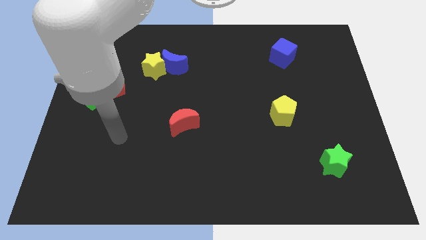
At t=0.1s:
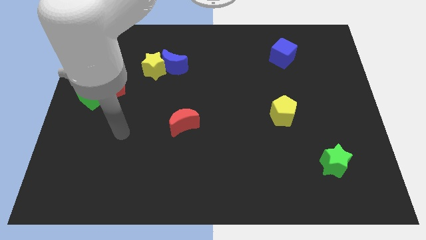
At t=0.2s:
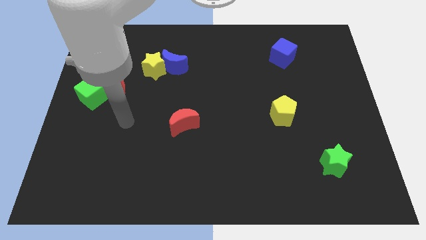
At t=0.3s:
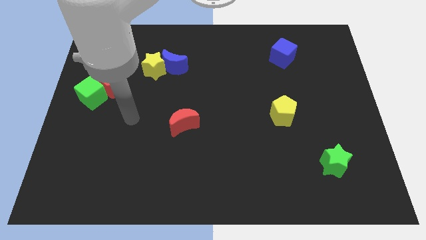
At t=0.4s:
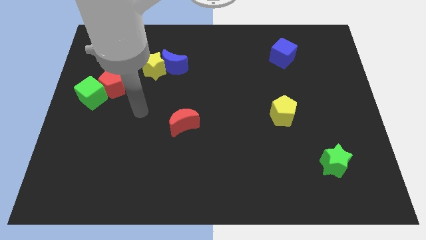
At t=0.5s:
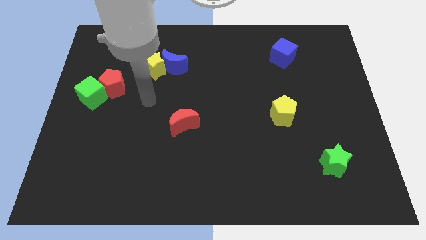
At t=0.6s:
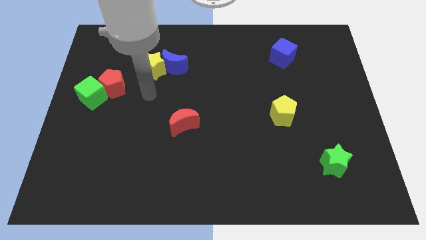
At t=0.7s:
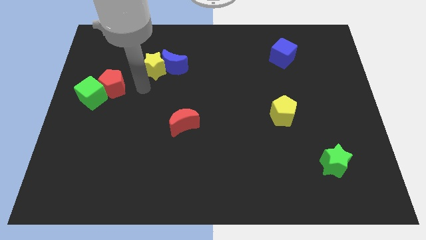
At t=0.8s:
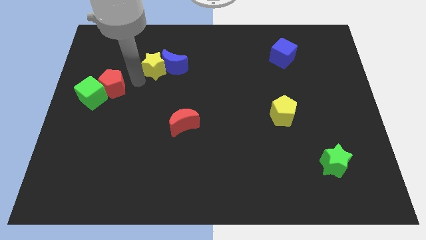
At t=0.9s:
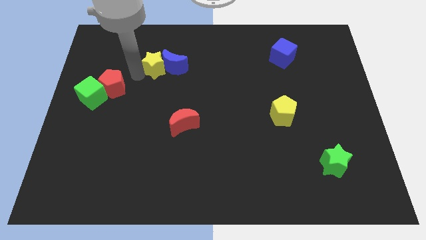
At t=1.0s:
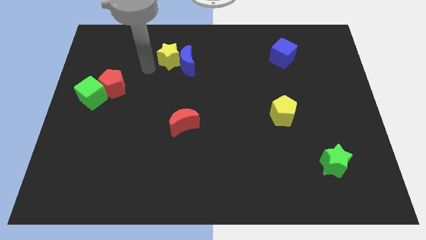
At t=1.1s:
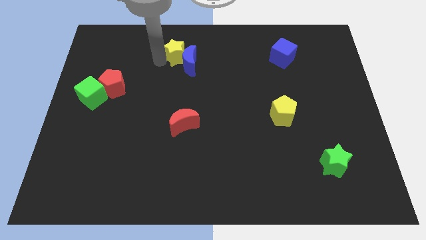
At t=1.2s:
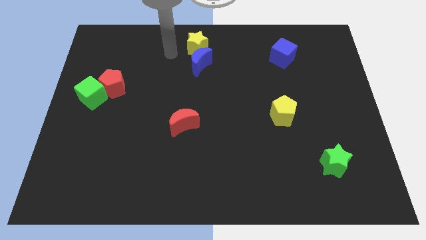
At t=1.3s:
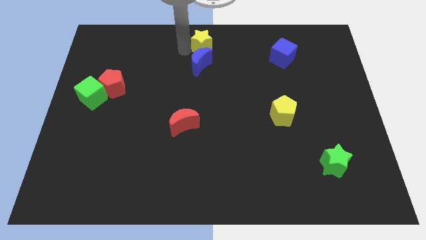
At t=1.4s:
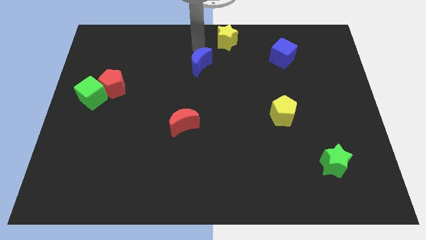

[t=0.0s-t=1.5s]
move the blue moon away from the yellow star

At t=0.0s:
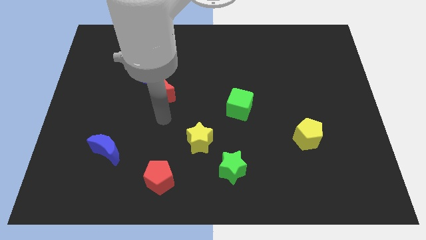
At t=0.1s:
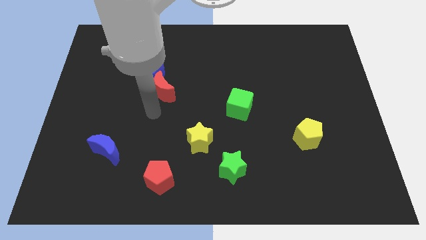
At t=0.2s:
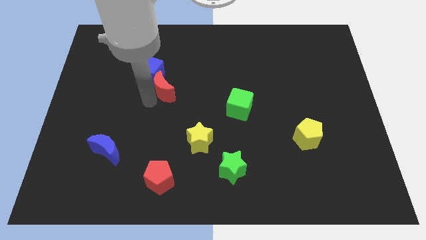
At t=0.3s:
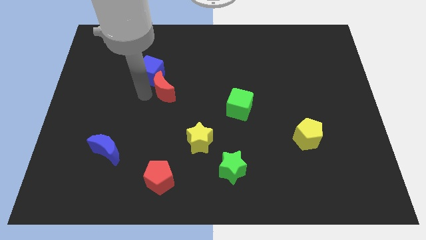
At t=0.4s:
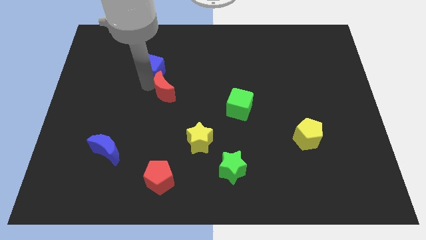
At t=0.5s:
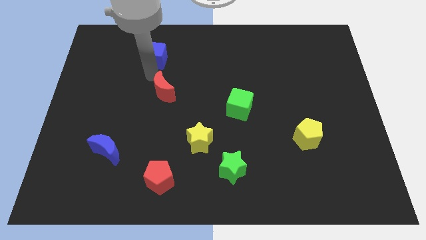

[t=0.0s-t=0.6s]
move the red moon away from the blue cube

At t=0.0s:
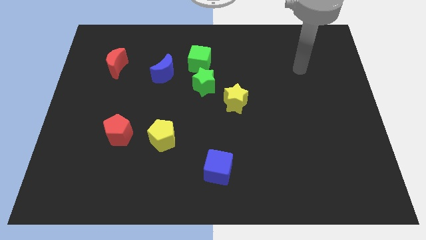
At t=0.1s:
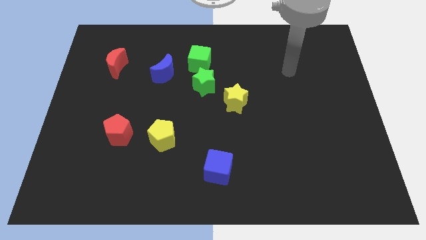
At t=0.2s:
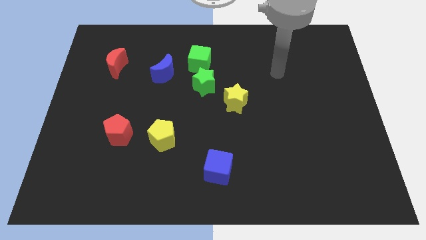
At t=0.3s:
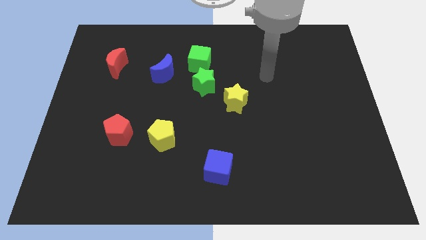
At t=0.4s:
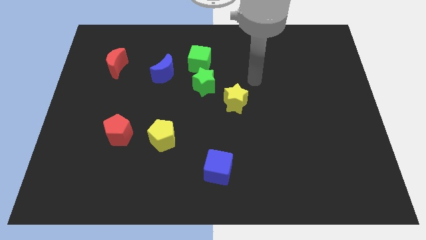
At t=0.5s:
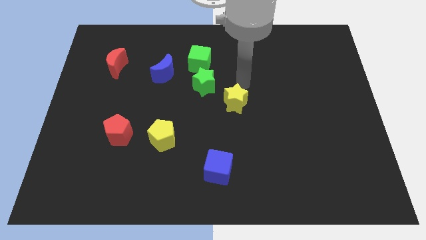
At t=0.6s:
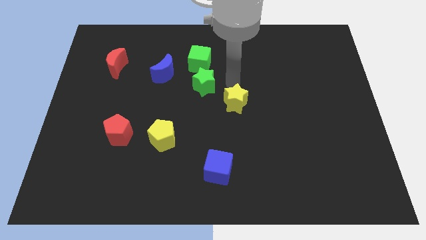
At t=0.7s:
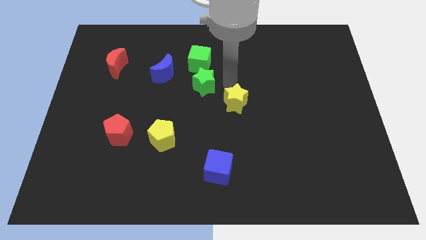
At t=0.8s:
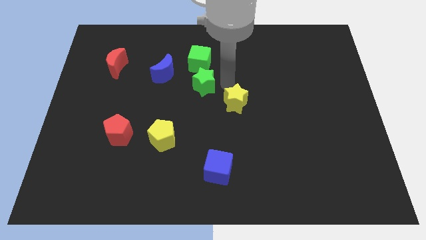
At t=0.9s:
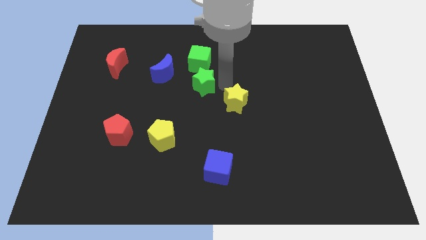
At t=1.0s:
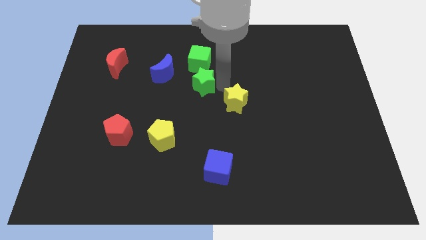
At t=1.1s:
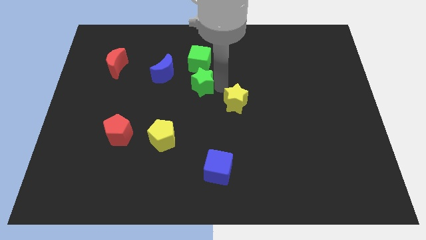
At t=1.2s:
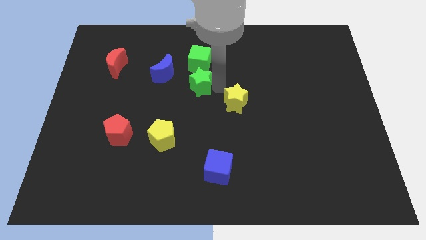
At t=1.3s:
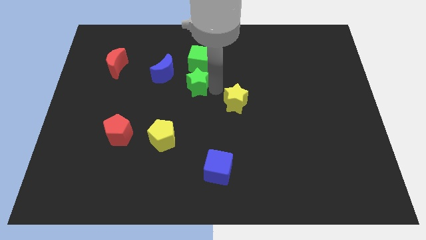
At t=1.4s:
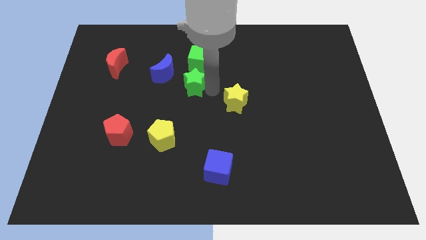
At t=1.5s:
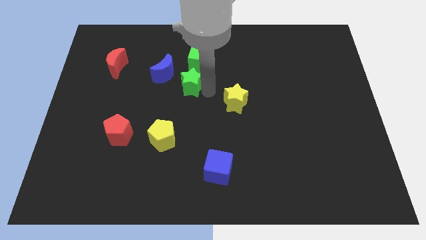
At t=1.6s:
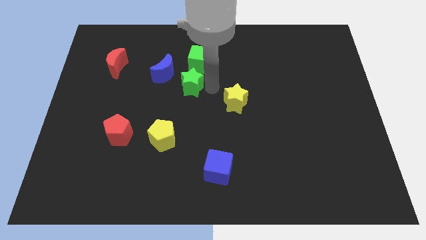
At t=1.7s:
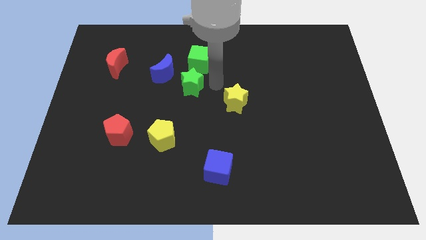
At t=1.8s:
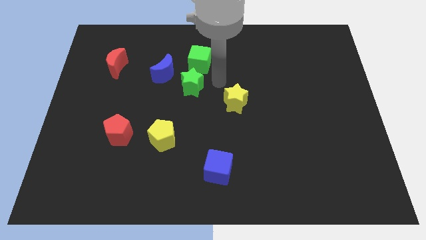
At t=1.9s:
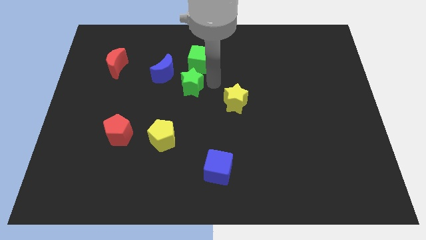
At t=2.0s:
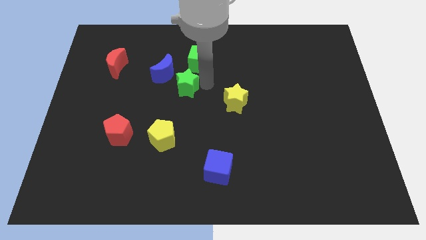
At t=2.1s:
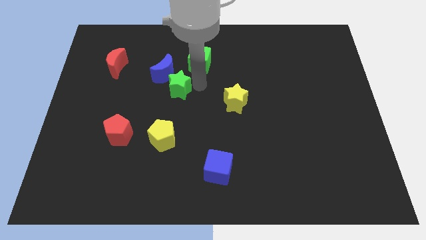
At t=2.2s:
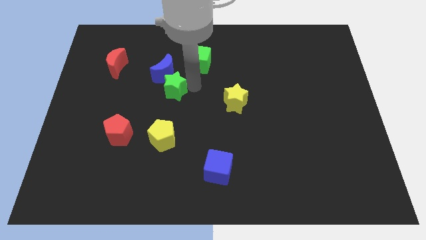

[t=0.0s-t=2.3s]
move the green star away from the green cube and yellow star

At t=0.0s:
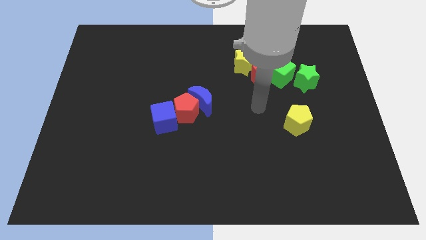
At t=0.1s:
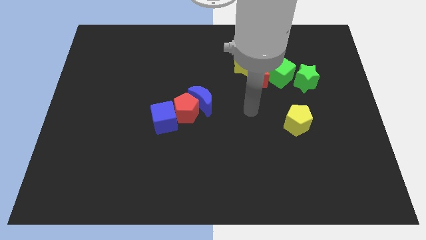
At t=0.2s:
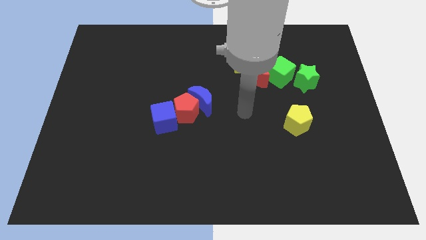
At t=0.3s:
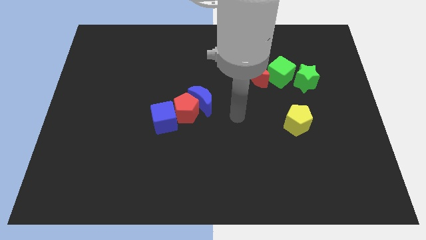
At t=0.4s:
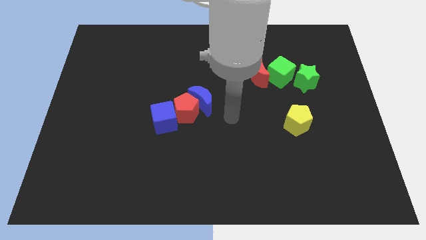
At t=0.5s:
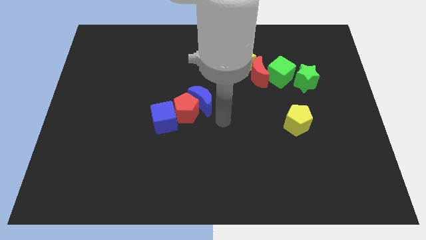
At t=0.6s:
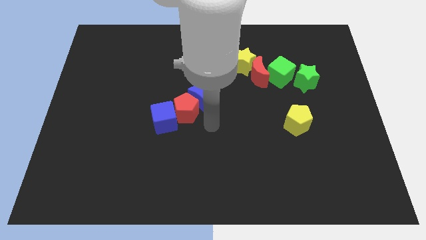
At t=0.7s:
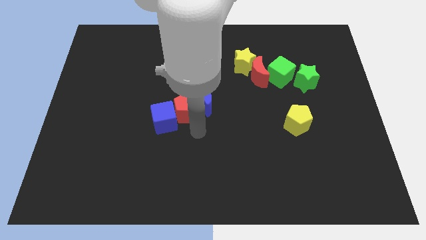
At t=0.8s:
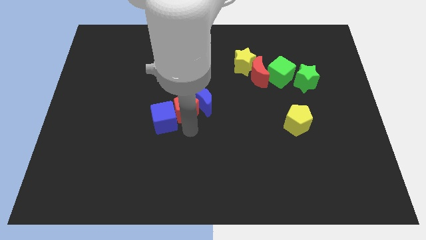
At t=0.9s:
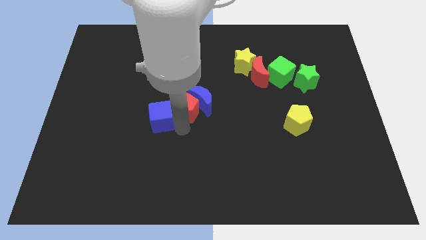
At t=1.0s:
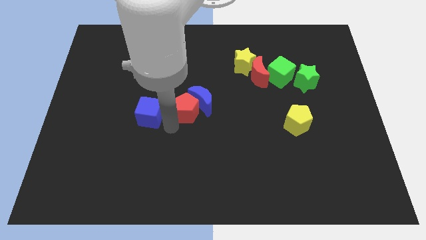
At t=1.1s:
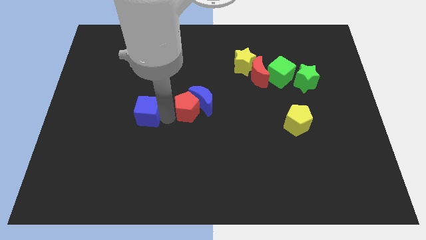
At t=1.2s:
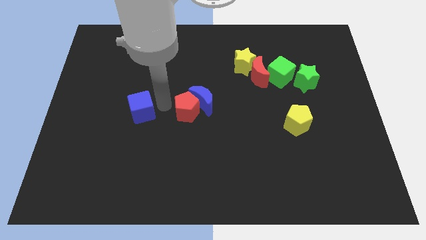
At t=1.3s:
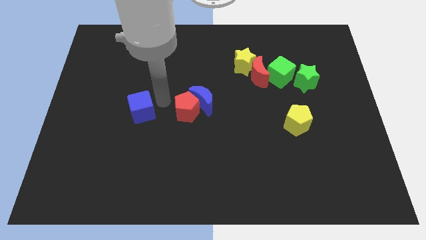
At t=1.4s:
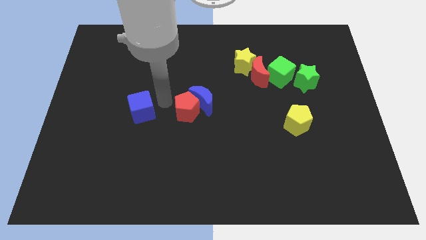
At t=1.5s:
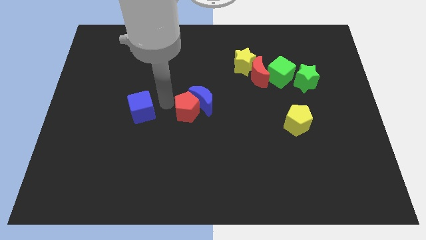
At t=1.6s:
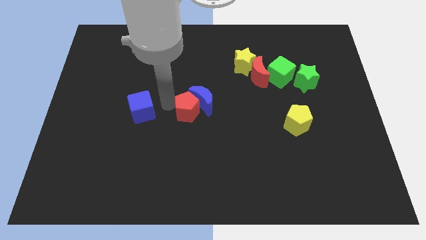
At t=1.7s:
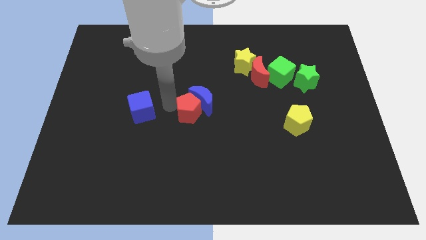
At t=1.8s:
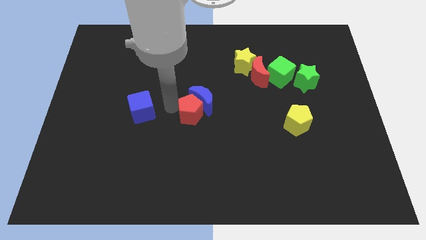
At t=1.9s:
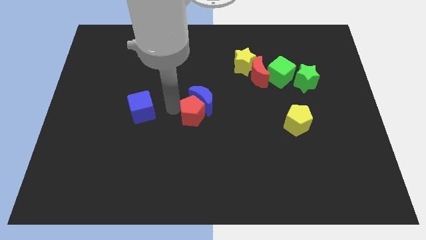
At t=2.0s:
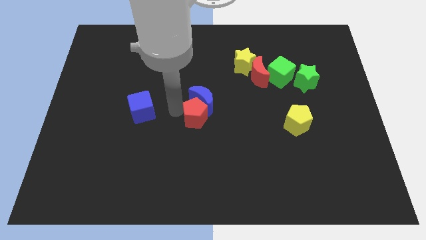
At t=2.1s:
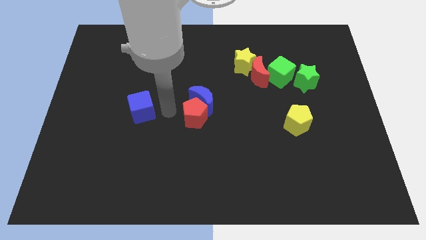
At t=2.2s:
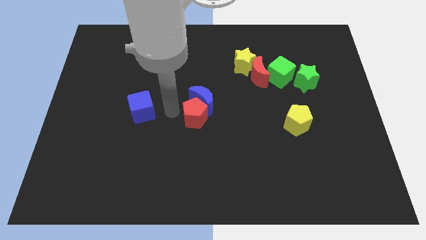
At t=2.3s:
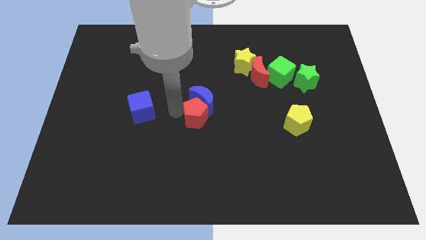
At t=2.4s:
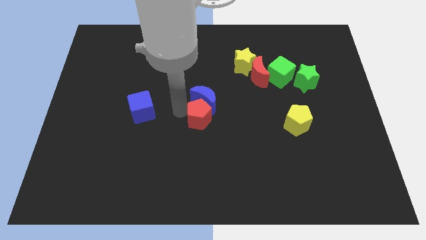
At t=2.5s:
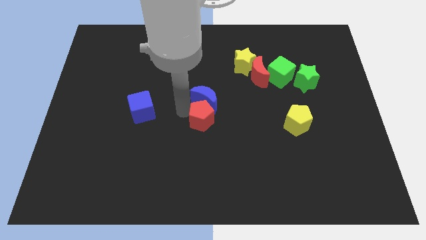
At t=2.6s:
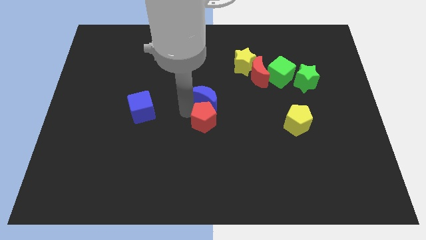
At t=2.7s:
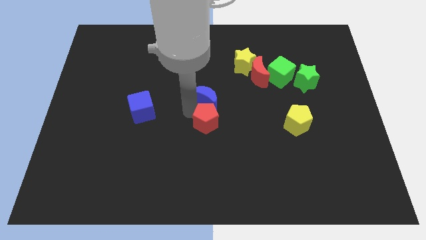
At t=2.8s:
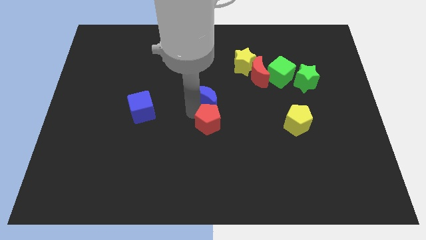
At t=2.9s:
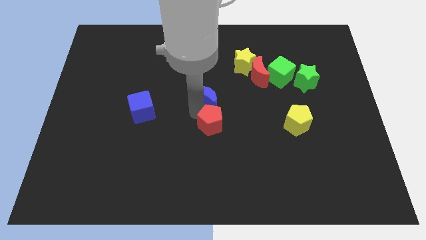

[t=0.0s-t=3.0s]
move the red pentagon away from the blue moon and blue cube

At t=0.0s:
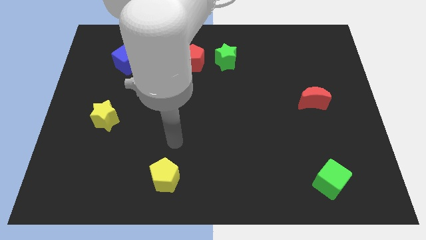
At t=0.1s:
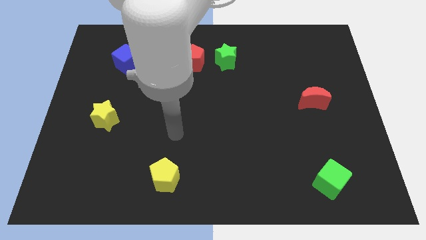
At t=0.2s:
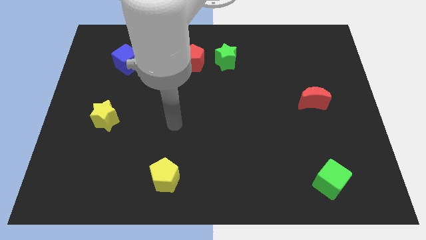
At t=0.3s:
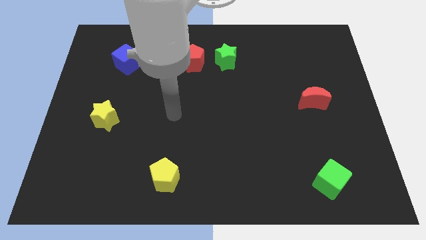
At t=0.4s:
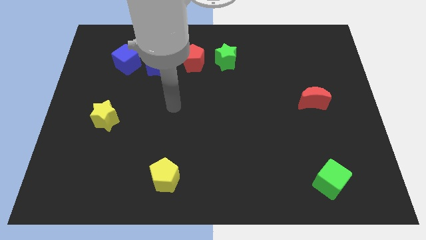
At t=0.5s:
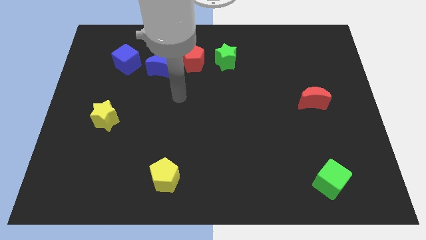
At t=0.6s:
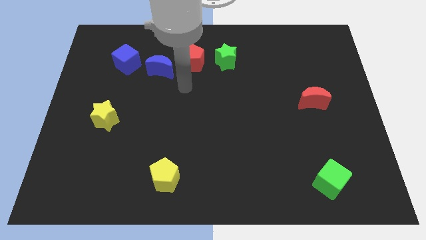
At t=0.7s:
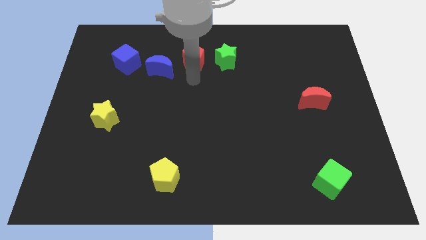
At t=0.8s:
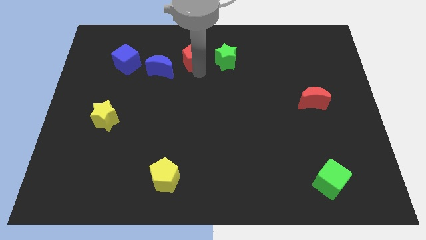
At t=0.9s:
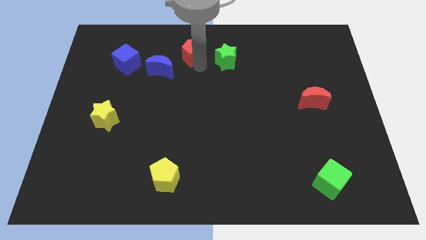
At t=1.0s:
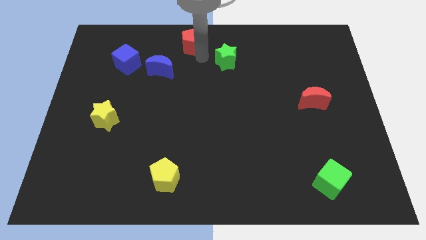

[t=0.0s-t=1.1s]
move the green star away from the red pentagon

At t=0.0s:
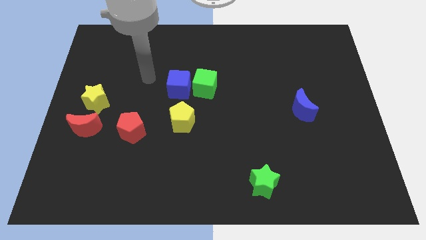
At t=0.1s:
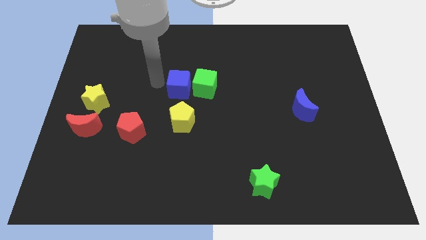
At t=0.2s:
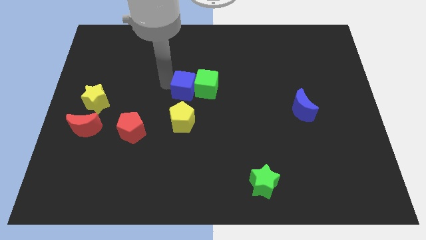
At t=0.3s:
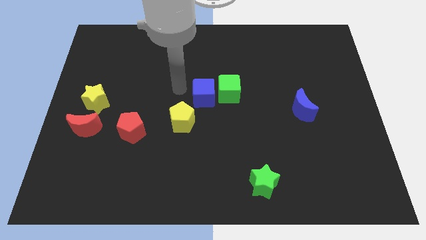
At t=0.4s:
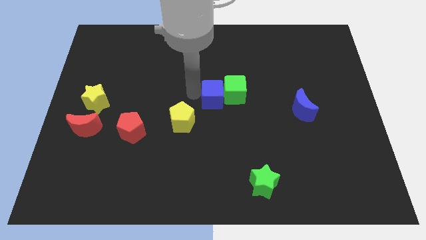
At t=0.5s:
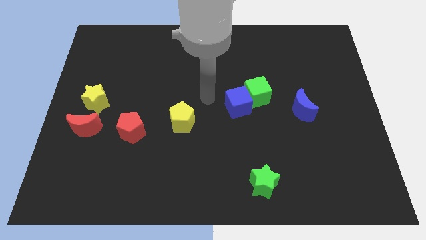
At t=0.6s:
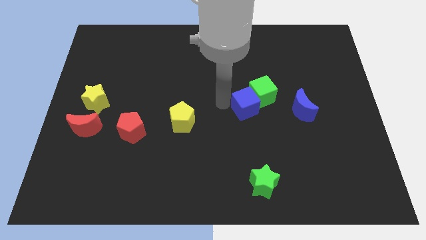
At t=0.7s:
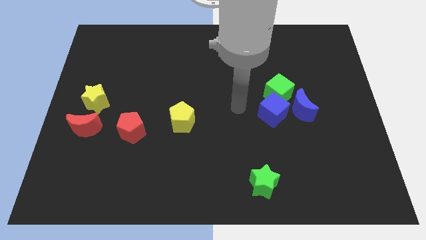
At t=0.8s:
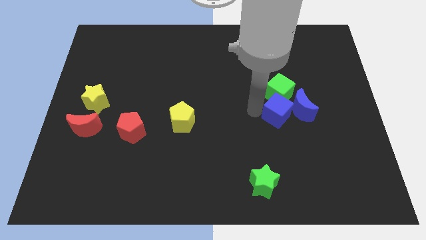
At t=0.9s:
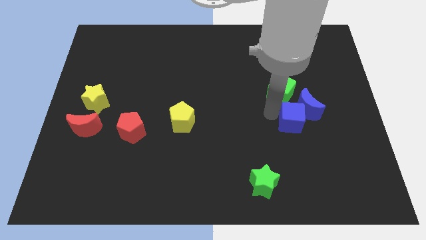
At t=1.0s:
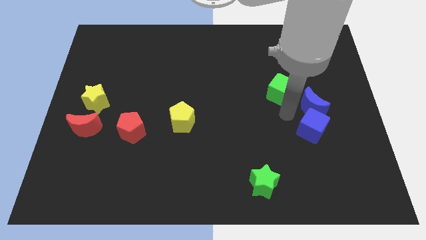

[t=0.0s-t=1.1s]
move the green cube away from the blue cube
